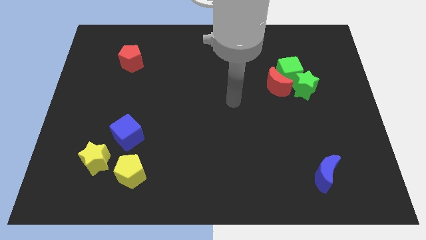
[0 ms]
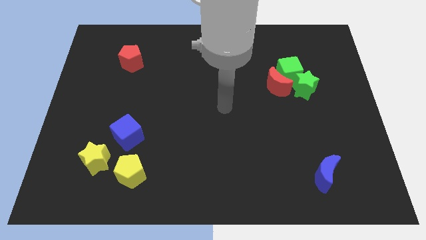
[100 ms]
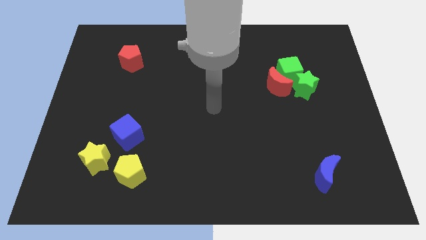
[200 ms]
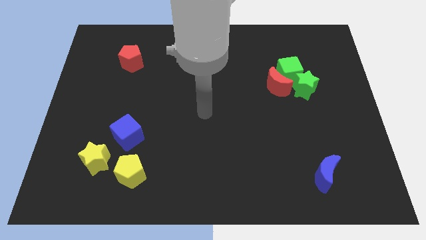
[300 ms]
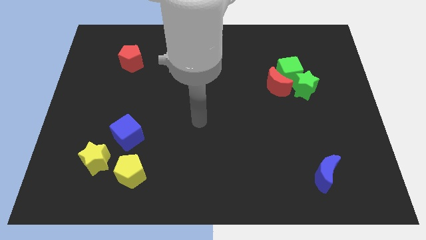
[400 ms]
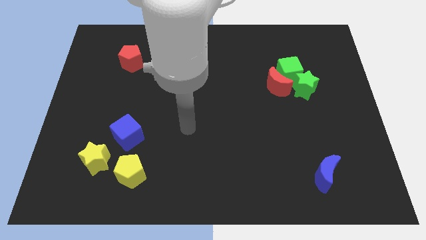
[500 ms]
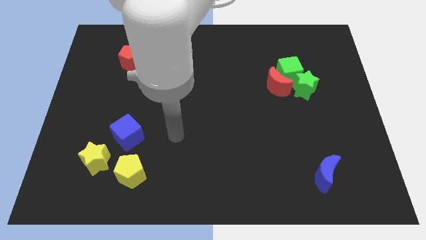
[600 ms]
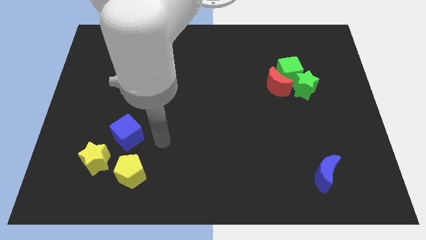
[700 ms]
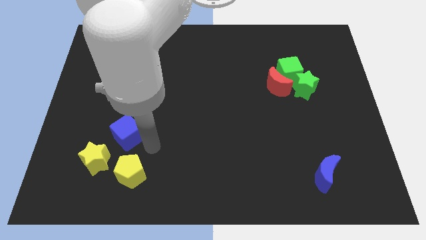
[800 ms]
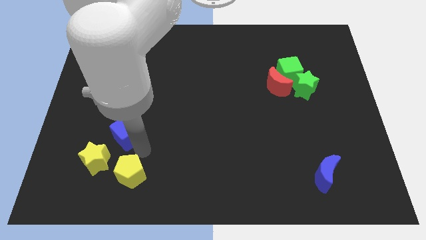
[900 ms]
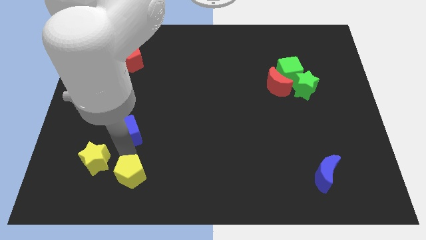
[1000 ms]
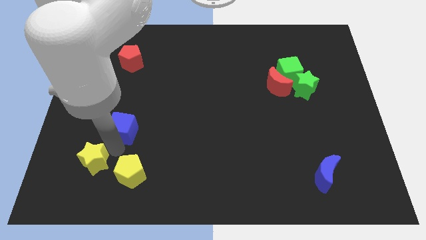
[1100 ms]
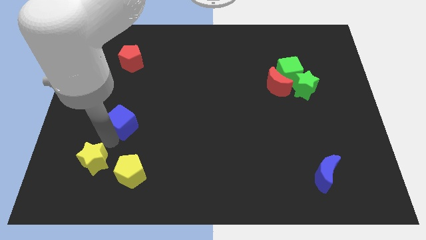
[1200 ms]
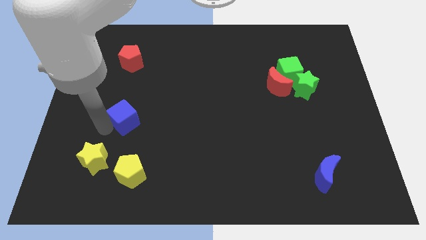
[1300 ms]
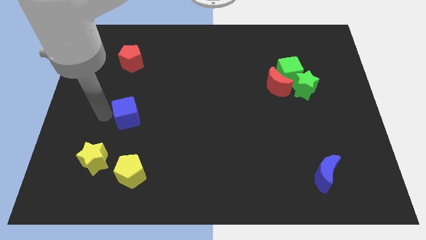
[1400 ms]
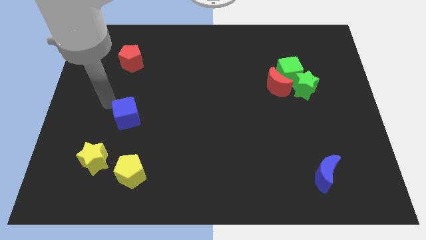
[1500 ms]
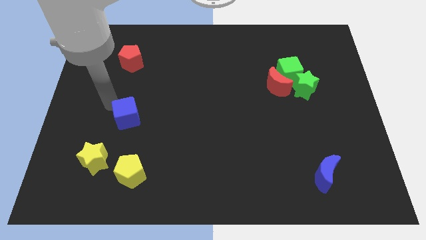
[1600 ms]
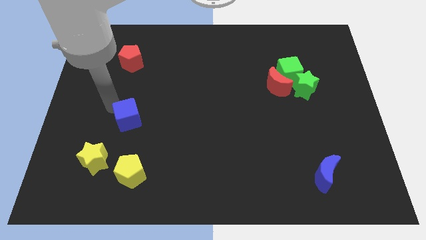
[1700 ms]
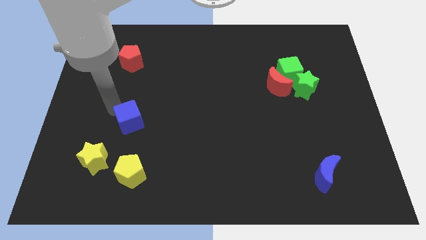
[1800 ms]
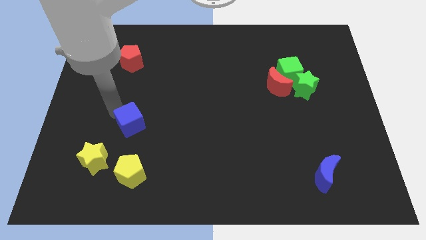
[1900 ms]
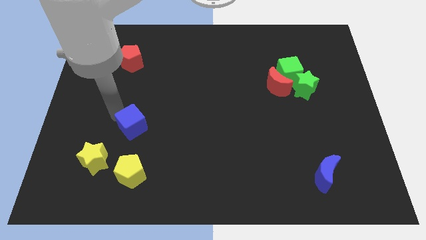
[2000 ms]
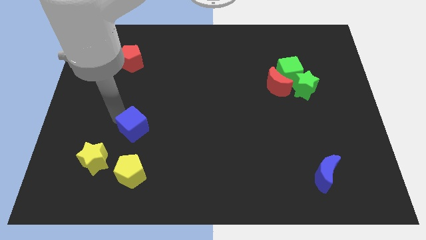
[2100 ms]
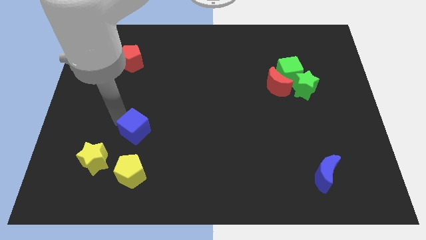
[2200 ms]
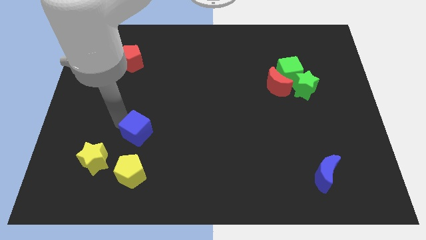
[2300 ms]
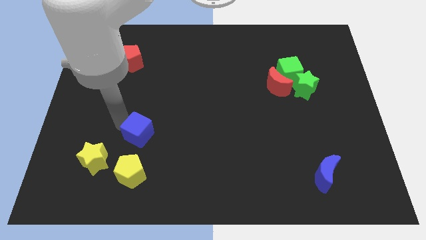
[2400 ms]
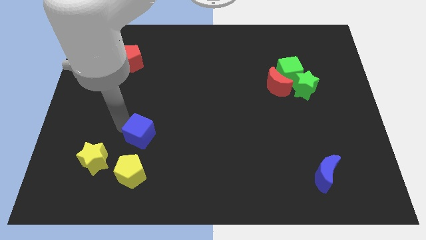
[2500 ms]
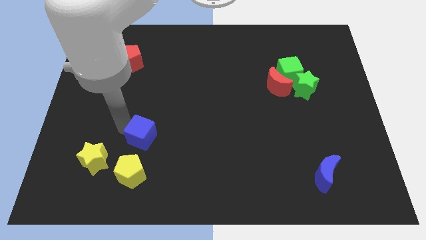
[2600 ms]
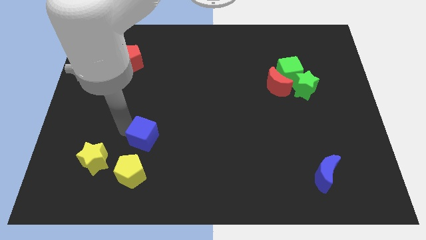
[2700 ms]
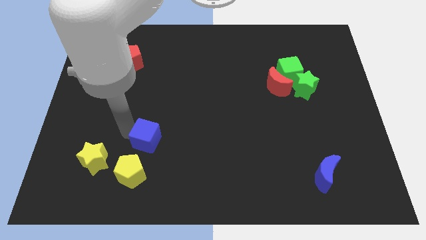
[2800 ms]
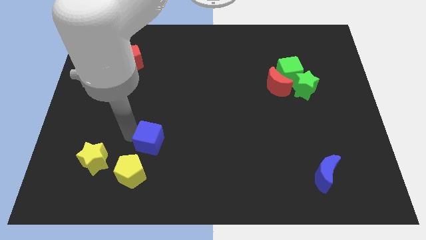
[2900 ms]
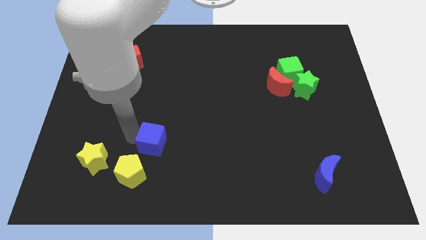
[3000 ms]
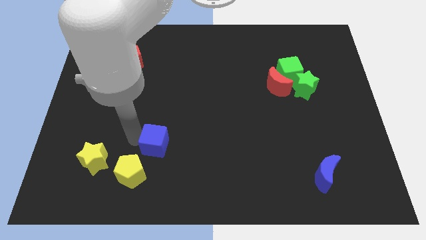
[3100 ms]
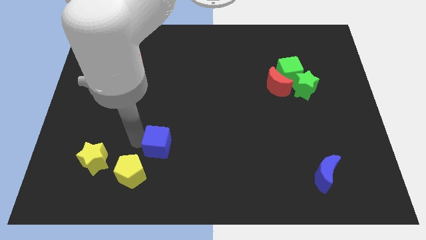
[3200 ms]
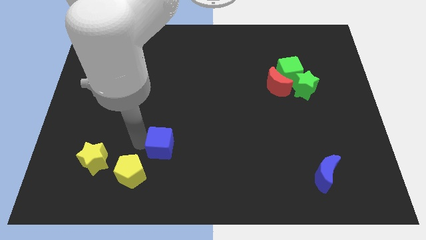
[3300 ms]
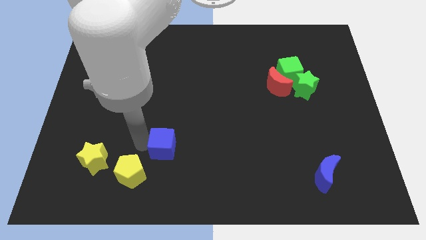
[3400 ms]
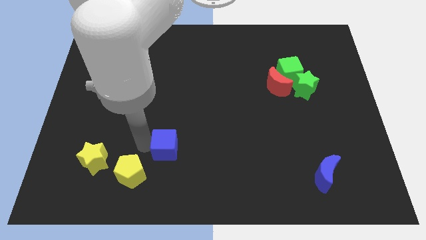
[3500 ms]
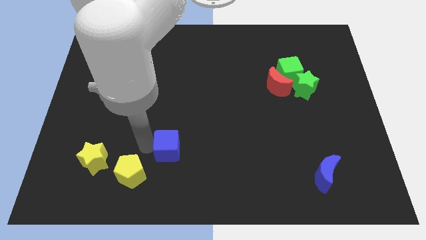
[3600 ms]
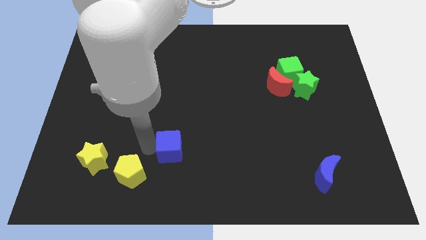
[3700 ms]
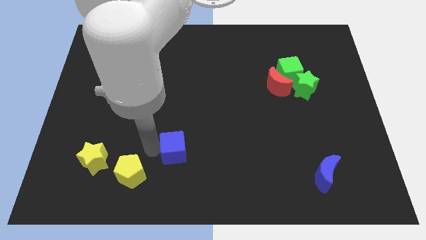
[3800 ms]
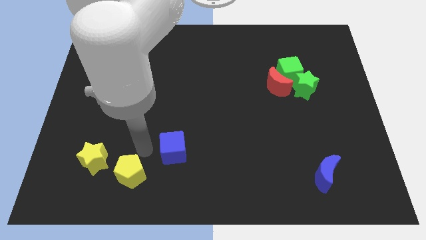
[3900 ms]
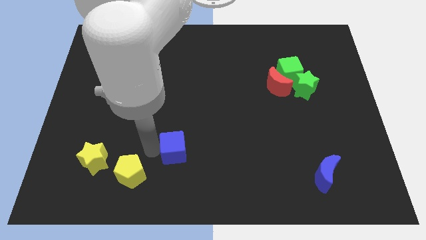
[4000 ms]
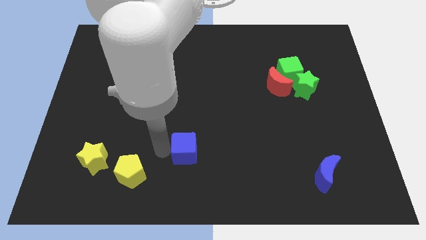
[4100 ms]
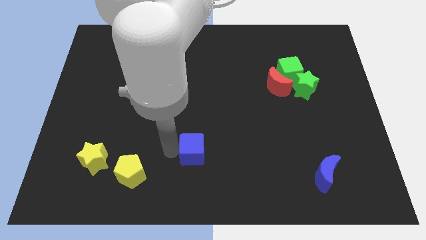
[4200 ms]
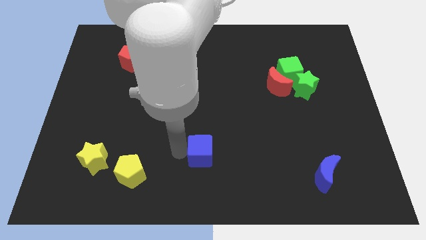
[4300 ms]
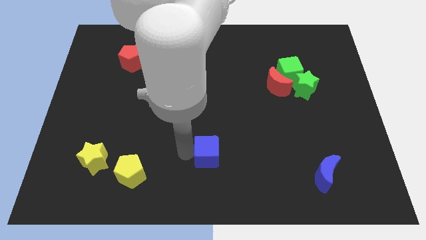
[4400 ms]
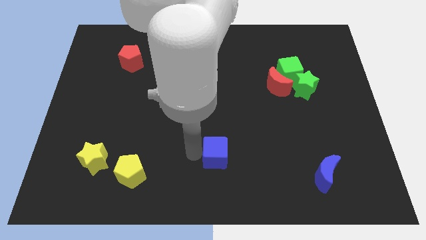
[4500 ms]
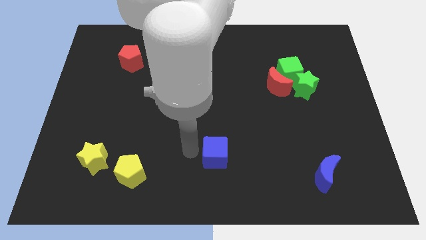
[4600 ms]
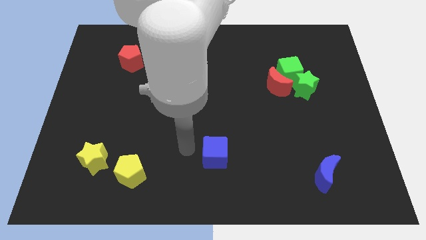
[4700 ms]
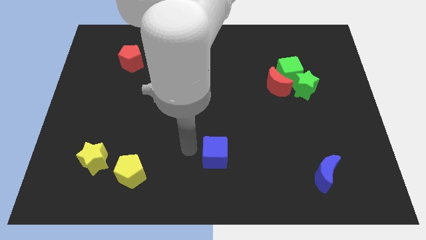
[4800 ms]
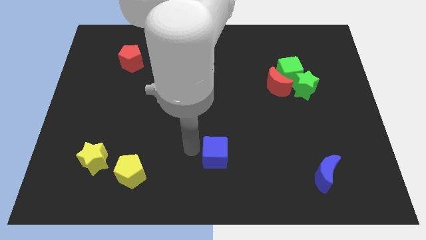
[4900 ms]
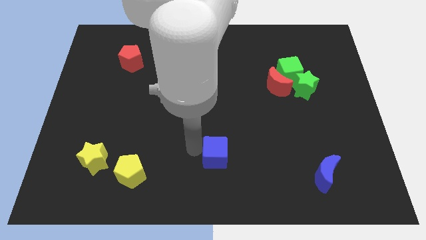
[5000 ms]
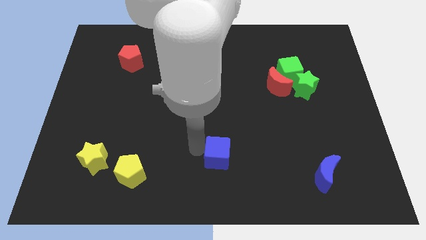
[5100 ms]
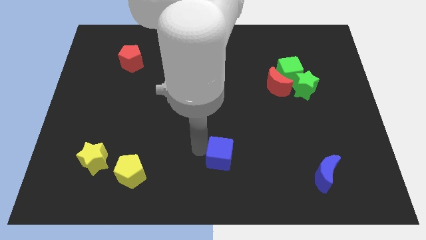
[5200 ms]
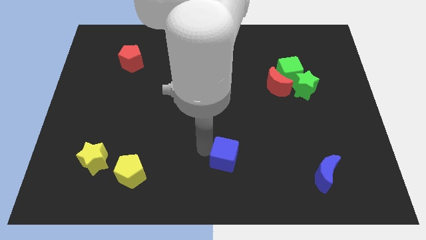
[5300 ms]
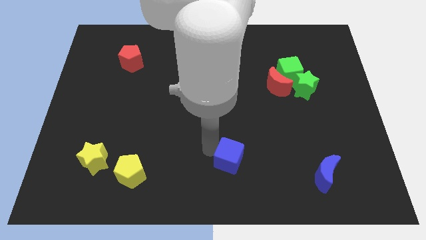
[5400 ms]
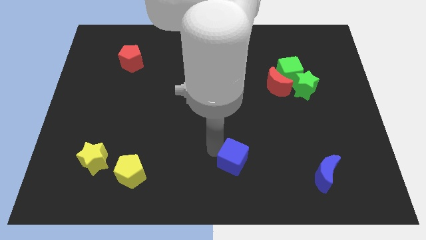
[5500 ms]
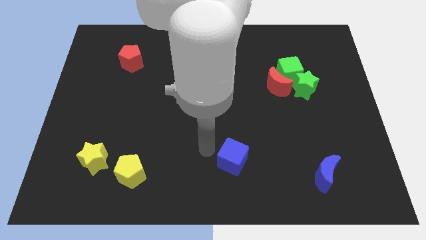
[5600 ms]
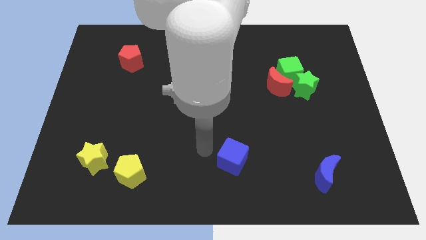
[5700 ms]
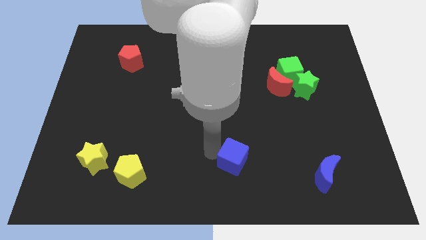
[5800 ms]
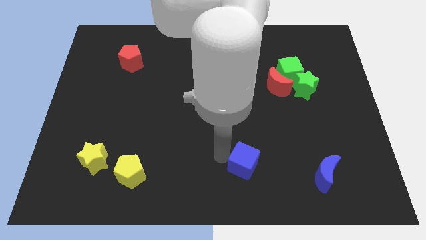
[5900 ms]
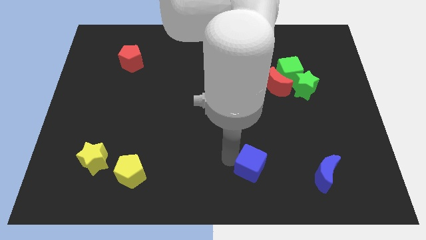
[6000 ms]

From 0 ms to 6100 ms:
move the blue cube left of the blue moon

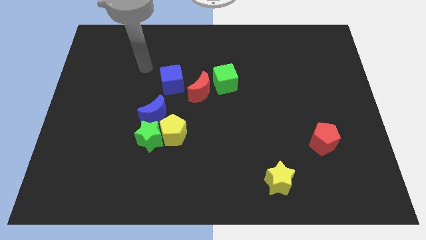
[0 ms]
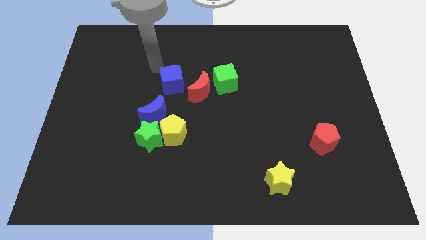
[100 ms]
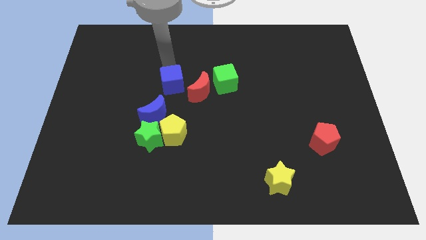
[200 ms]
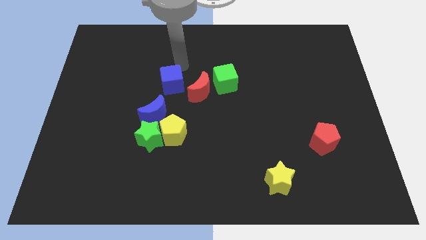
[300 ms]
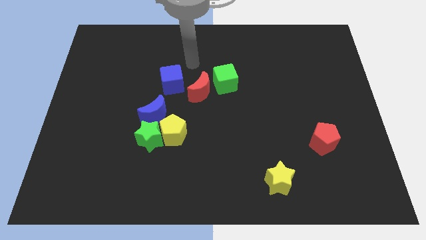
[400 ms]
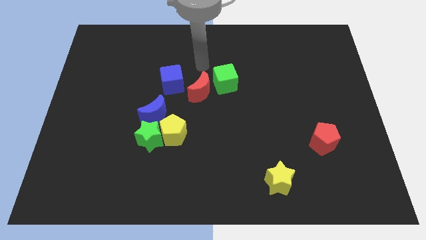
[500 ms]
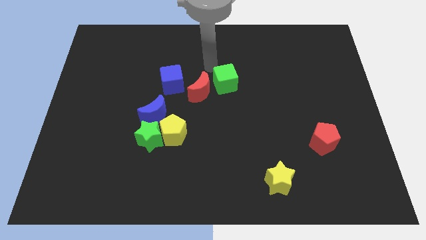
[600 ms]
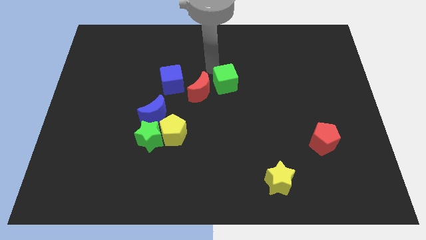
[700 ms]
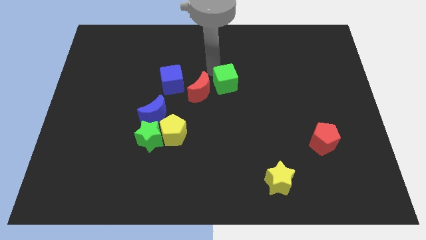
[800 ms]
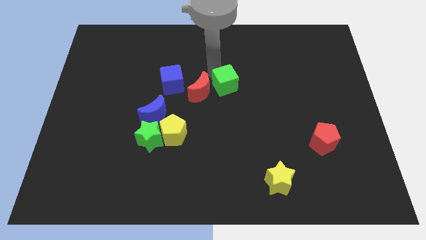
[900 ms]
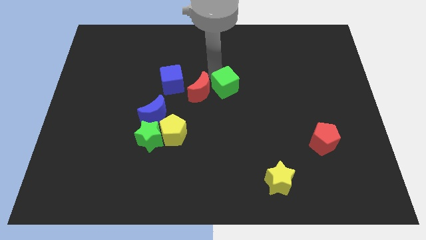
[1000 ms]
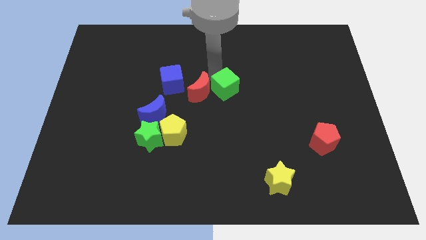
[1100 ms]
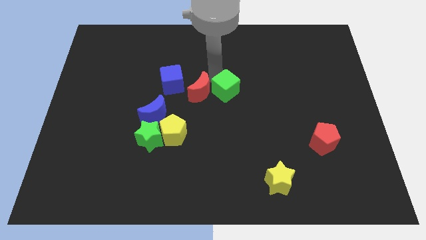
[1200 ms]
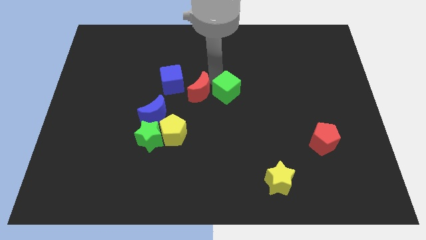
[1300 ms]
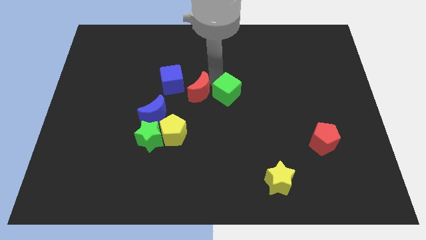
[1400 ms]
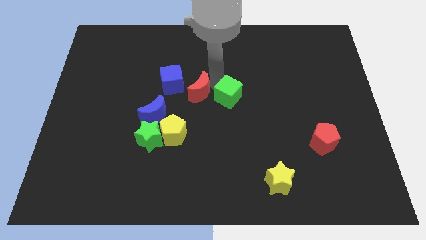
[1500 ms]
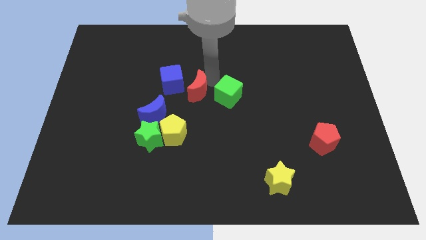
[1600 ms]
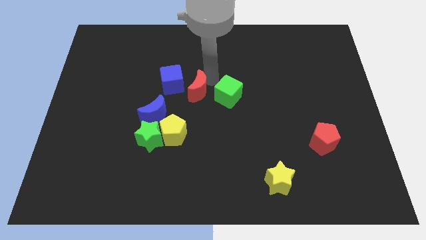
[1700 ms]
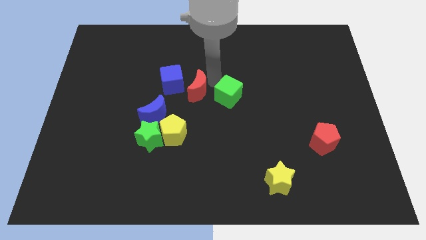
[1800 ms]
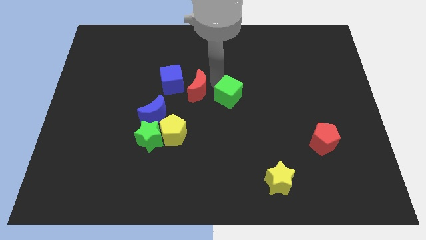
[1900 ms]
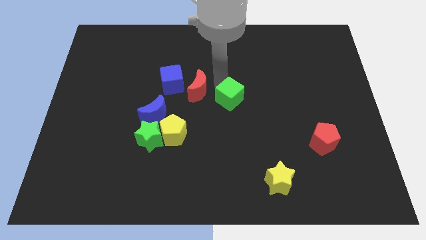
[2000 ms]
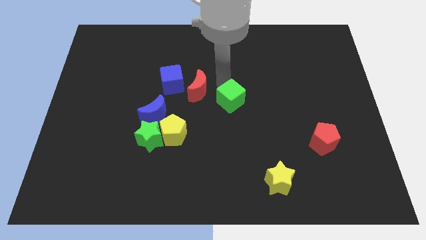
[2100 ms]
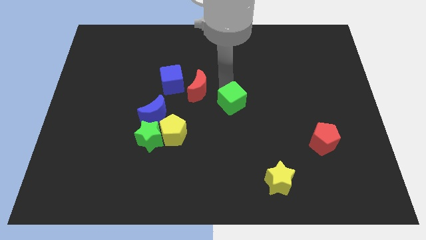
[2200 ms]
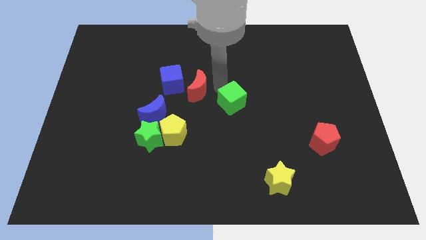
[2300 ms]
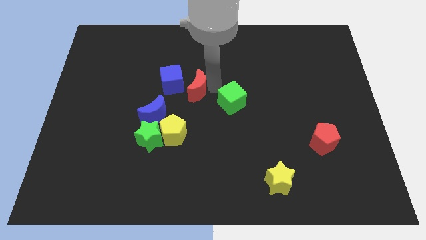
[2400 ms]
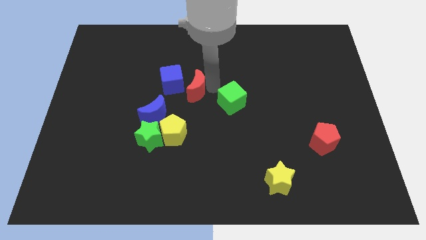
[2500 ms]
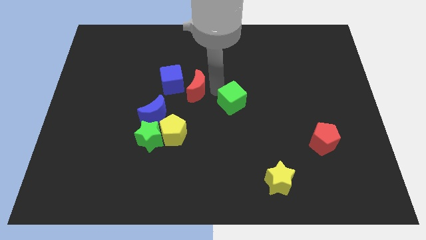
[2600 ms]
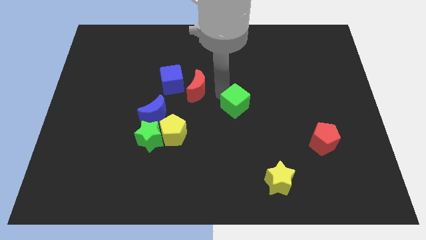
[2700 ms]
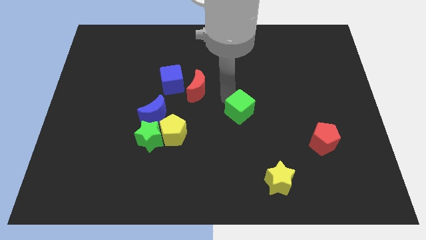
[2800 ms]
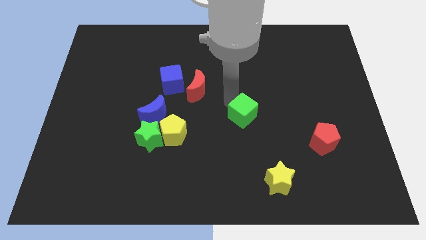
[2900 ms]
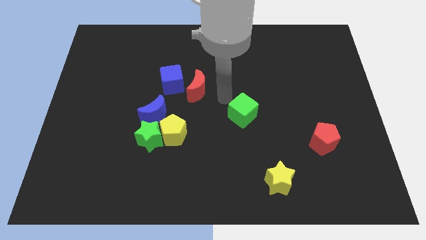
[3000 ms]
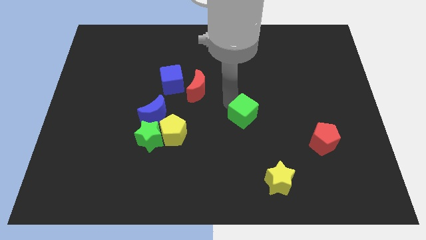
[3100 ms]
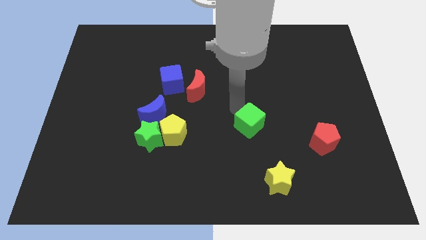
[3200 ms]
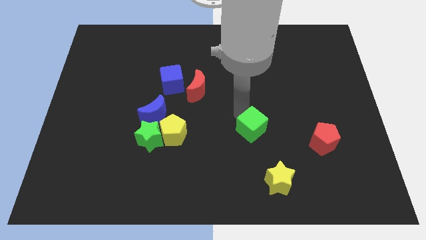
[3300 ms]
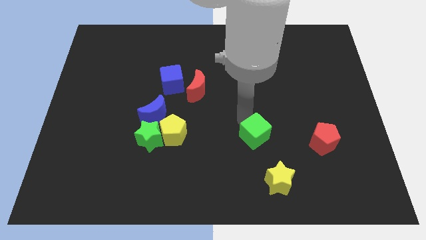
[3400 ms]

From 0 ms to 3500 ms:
push the green cube left of the red pentagon
